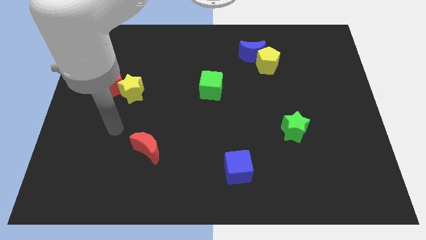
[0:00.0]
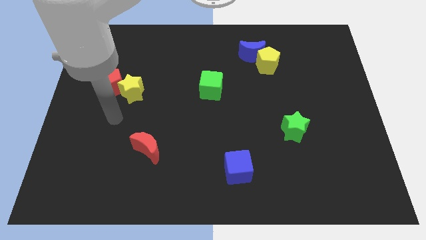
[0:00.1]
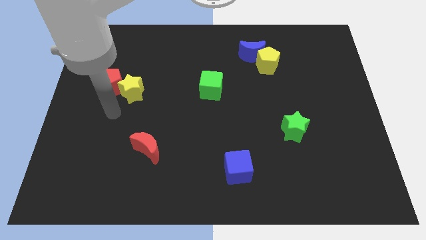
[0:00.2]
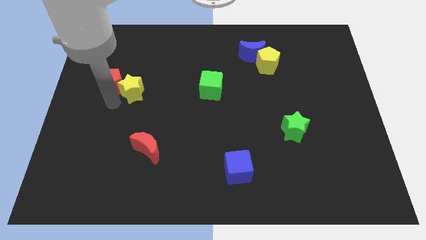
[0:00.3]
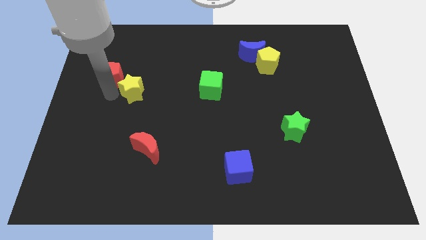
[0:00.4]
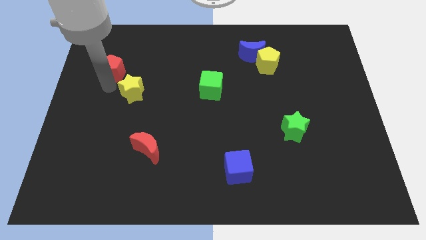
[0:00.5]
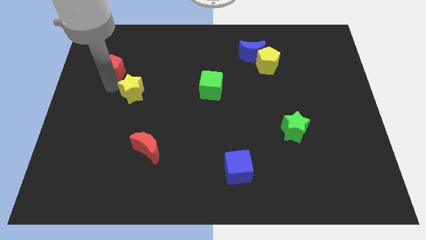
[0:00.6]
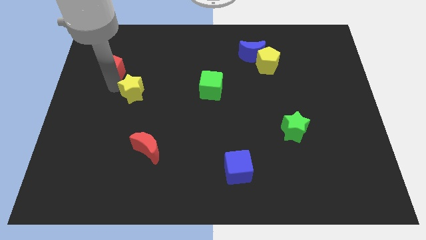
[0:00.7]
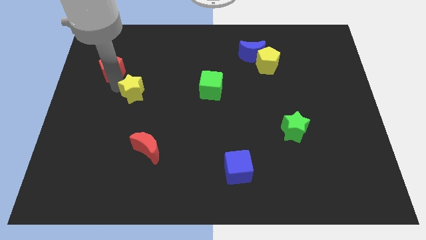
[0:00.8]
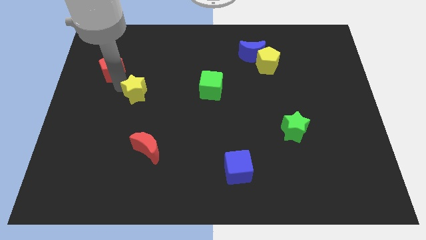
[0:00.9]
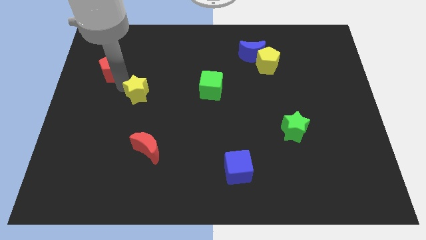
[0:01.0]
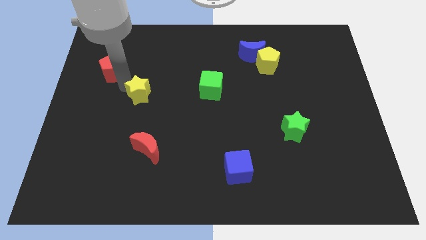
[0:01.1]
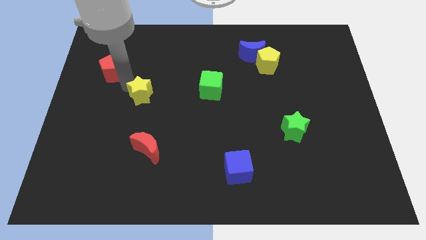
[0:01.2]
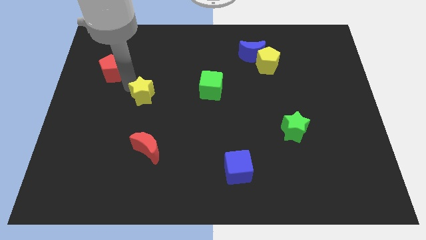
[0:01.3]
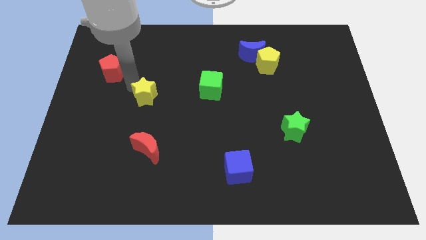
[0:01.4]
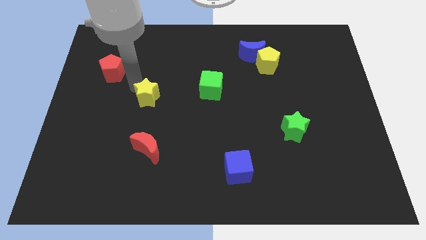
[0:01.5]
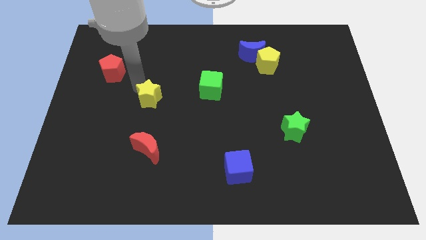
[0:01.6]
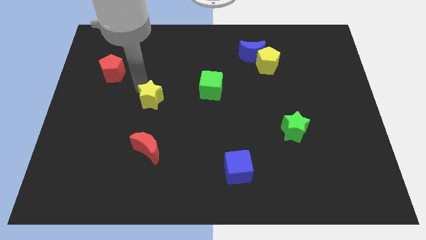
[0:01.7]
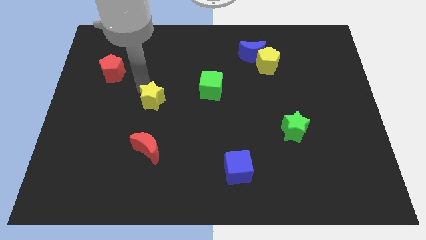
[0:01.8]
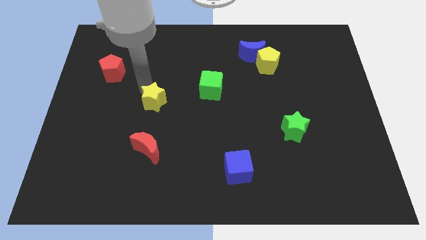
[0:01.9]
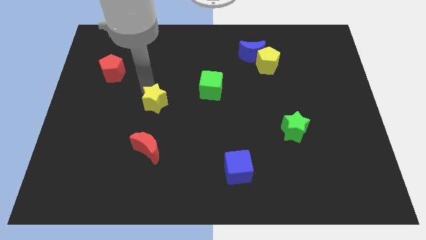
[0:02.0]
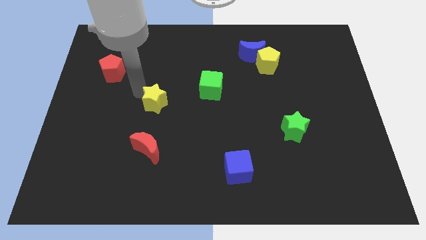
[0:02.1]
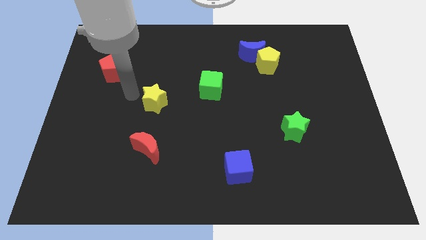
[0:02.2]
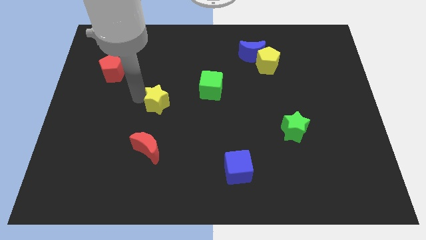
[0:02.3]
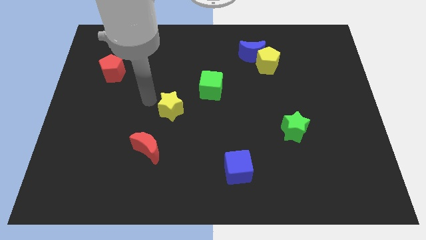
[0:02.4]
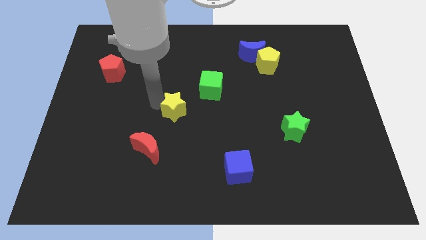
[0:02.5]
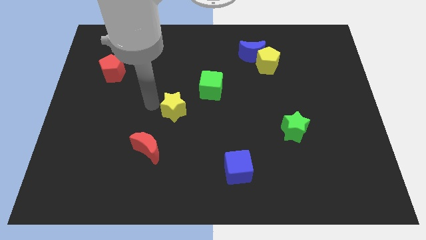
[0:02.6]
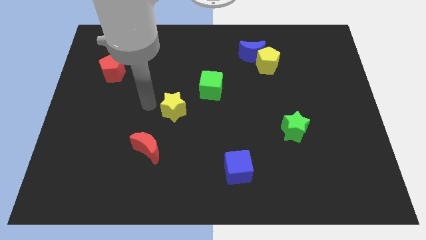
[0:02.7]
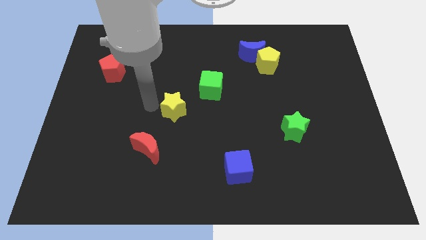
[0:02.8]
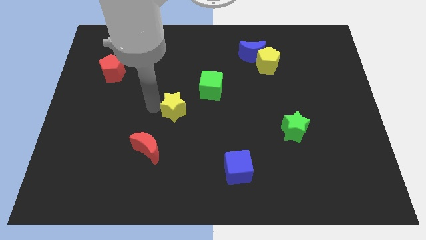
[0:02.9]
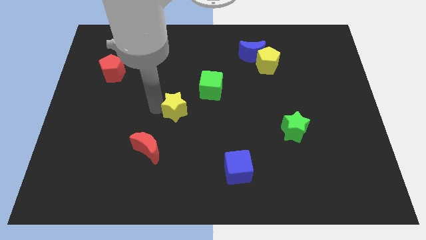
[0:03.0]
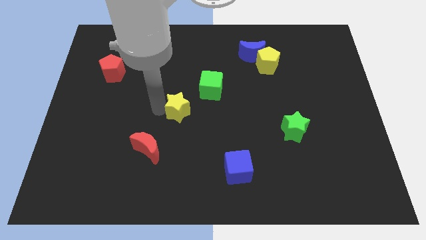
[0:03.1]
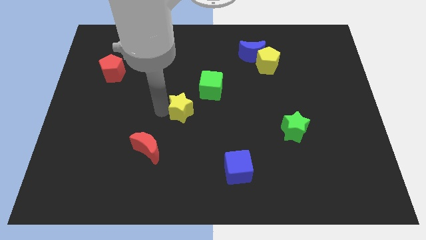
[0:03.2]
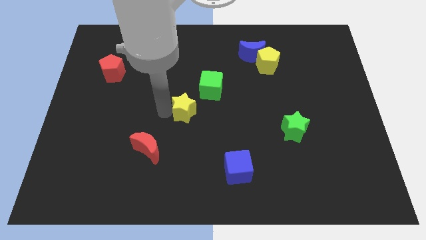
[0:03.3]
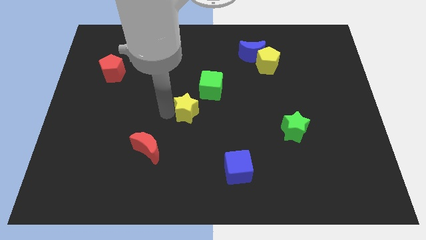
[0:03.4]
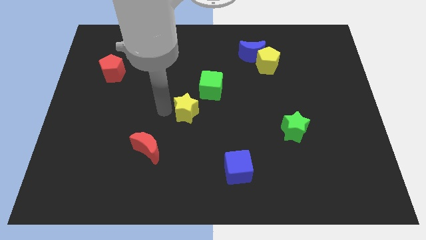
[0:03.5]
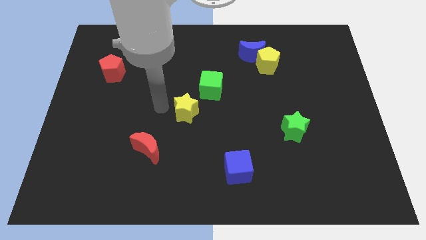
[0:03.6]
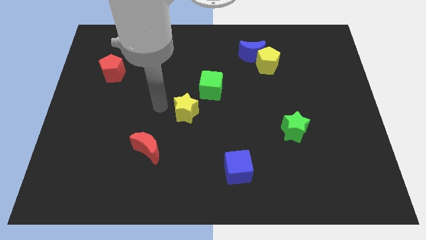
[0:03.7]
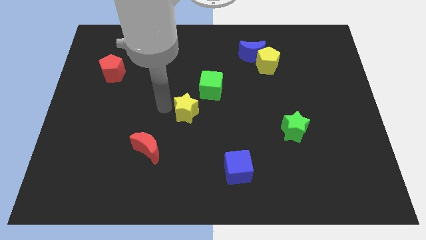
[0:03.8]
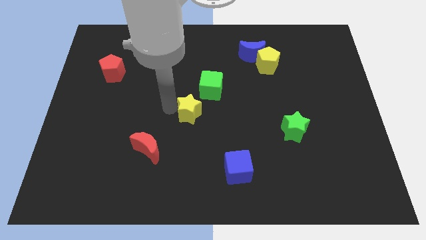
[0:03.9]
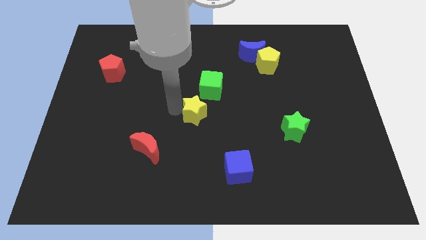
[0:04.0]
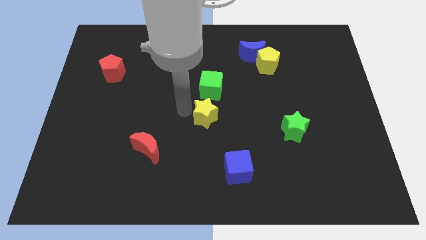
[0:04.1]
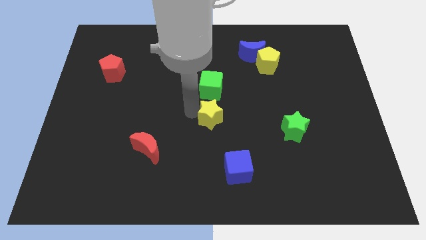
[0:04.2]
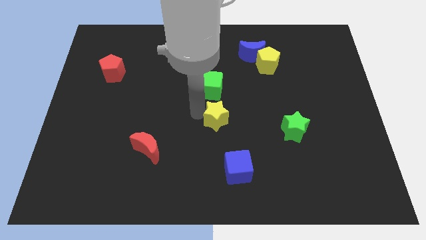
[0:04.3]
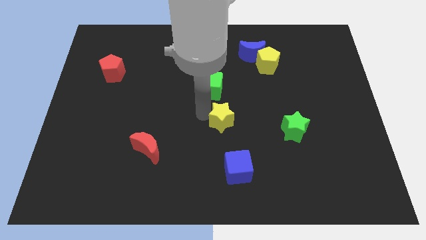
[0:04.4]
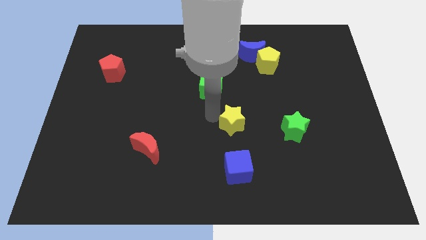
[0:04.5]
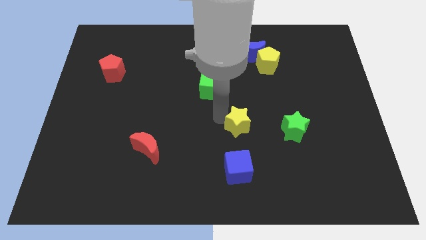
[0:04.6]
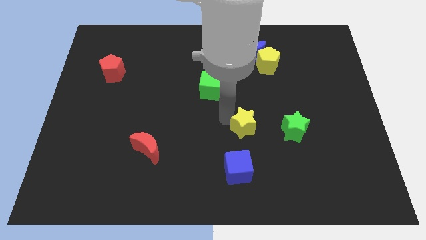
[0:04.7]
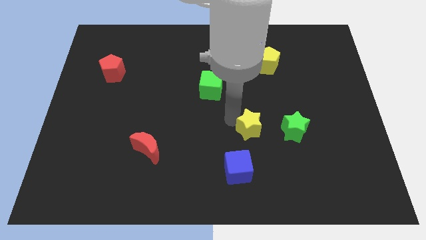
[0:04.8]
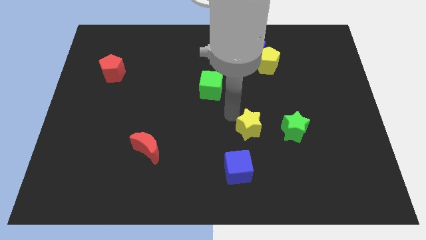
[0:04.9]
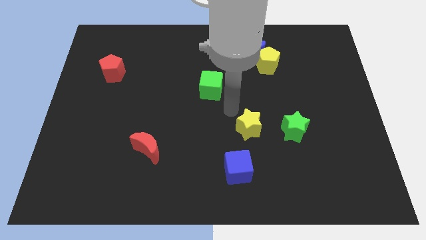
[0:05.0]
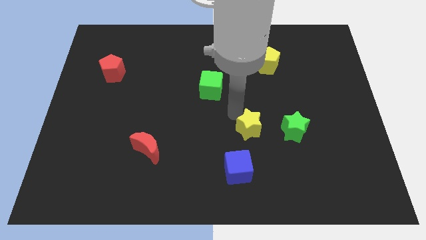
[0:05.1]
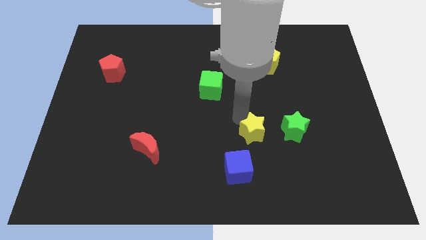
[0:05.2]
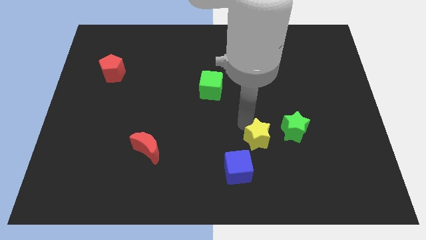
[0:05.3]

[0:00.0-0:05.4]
push the yellow star to the bottom left side of the green star

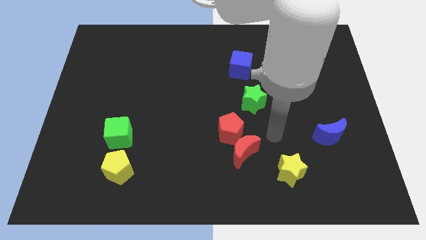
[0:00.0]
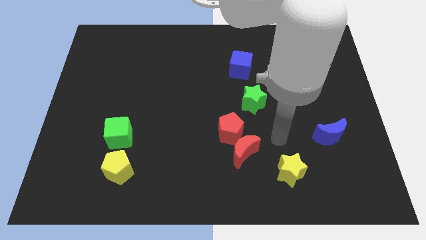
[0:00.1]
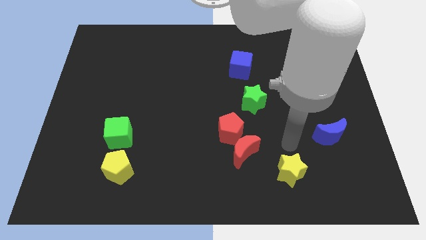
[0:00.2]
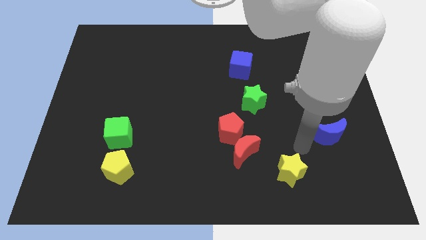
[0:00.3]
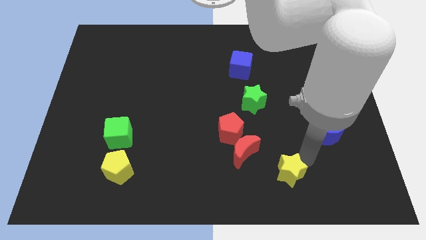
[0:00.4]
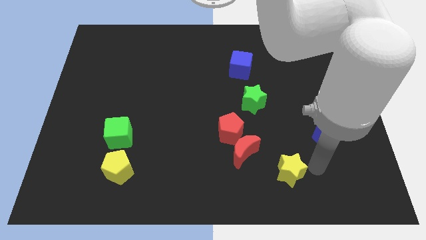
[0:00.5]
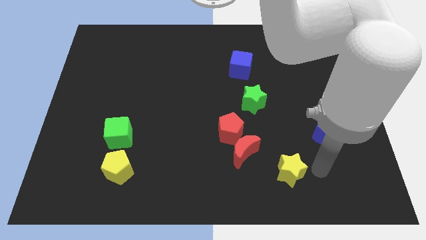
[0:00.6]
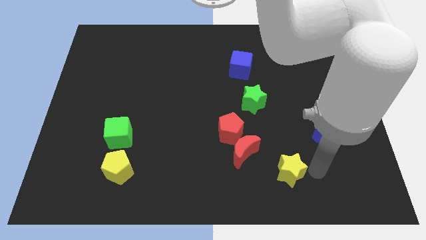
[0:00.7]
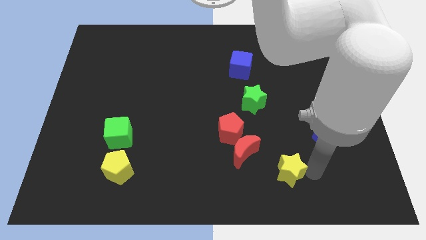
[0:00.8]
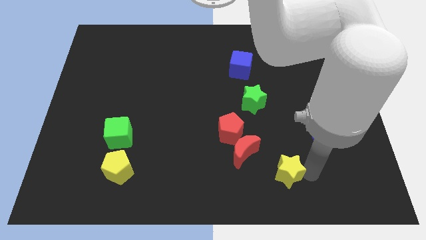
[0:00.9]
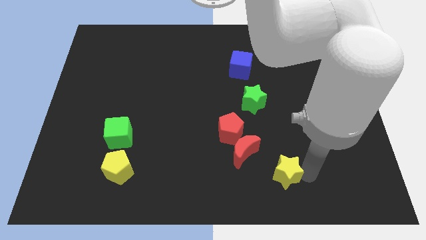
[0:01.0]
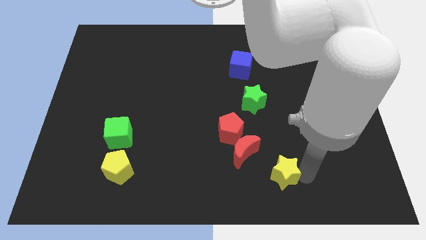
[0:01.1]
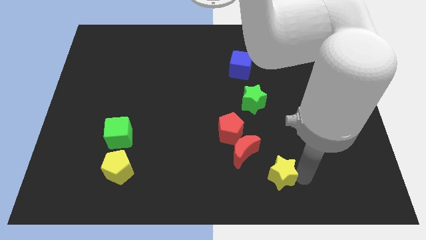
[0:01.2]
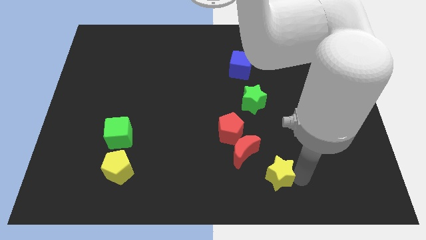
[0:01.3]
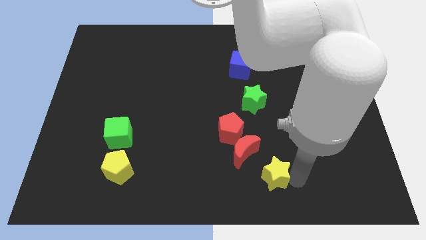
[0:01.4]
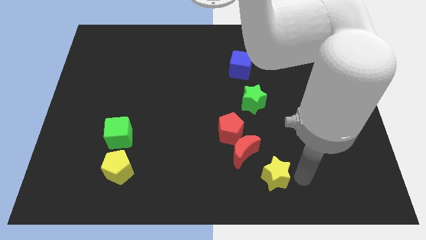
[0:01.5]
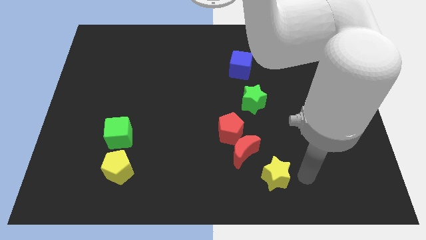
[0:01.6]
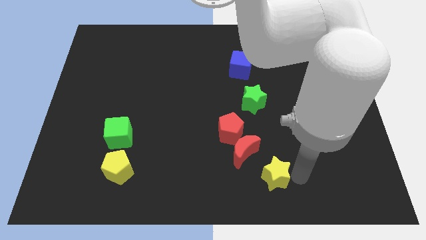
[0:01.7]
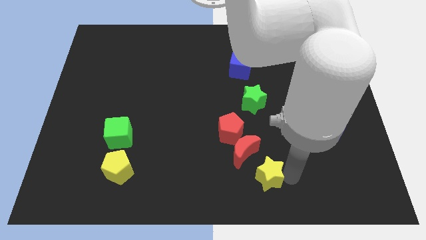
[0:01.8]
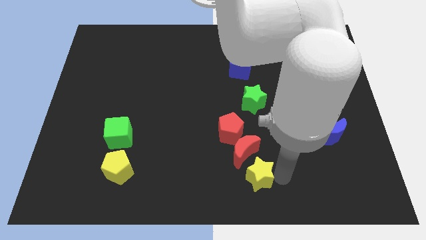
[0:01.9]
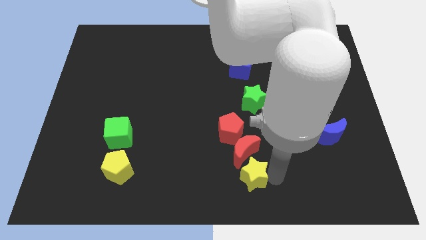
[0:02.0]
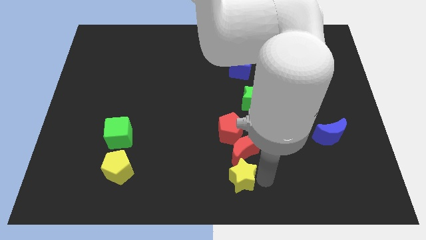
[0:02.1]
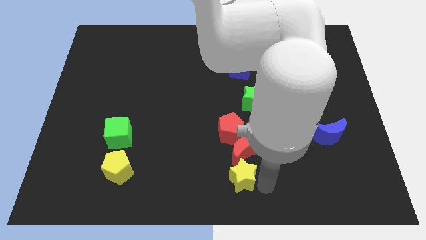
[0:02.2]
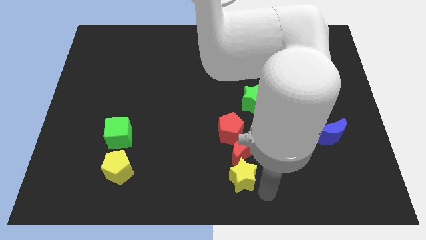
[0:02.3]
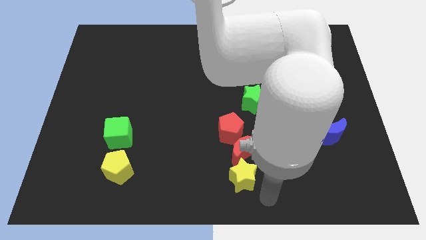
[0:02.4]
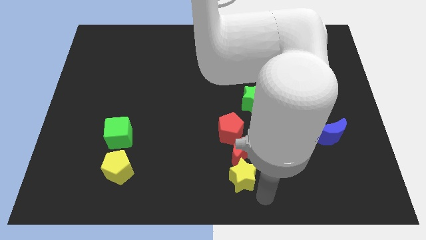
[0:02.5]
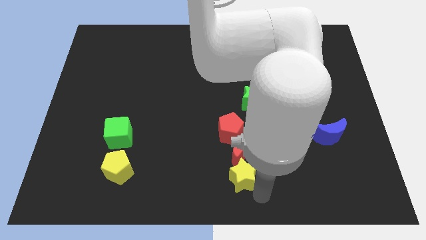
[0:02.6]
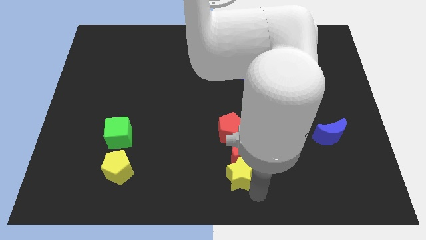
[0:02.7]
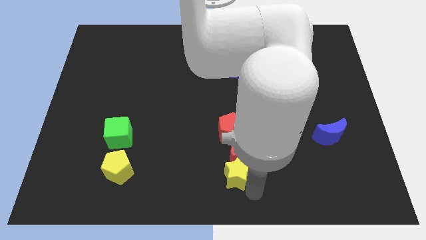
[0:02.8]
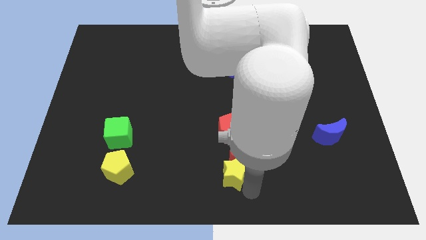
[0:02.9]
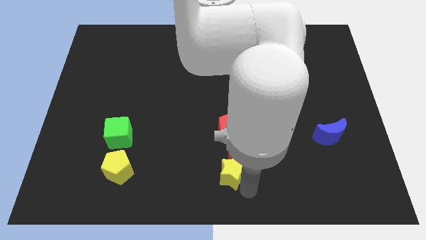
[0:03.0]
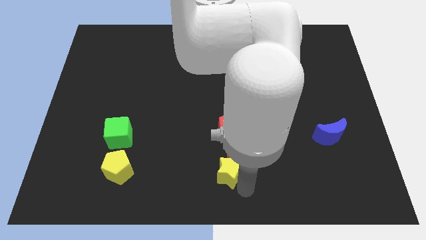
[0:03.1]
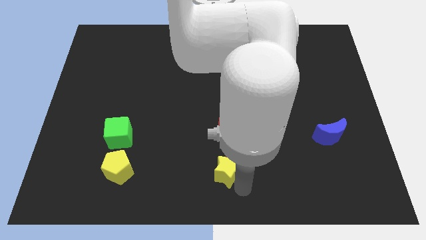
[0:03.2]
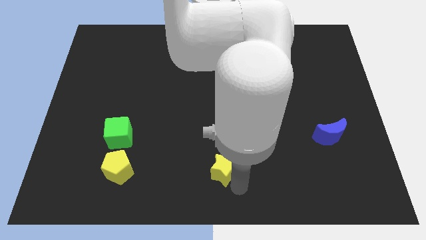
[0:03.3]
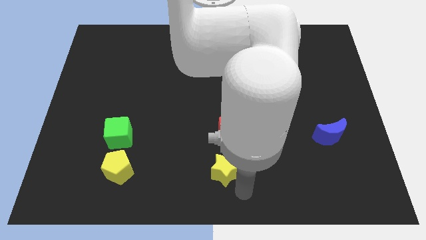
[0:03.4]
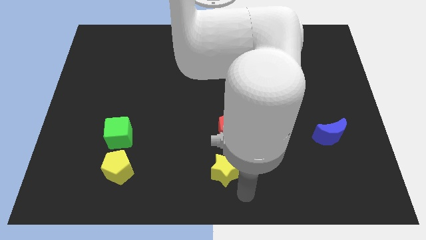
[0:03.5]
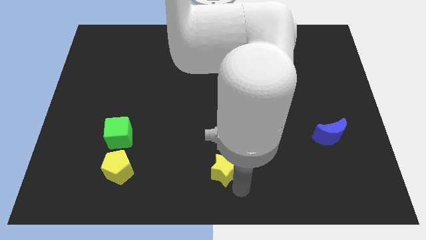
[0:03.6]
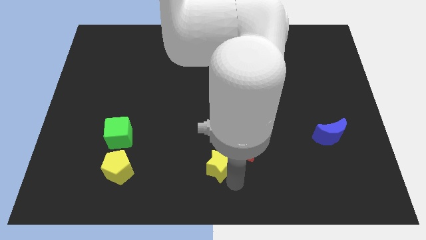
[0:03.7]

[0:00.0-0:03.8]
push the yellow star to the bottom left of the red pentagon
